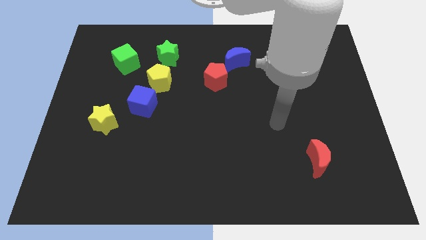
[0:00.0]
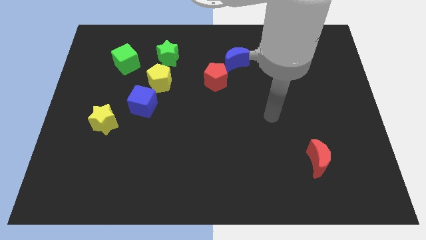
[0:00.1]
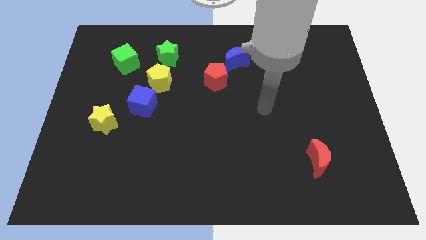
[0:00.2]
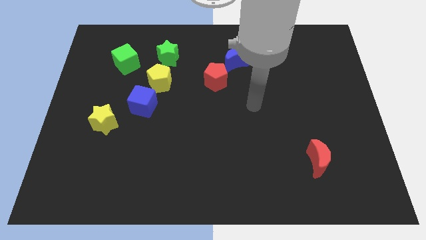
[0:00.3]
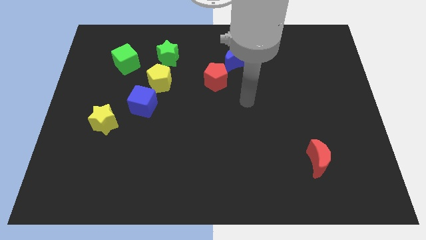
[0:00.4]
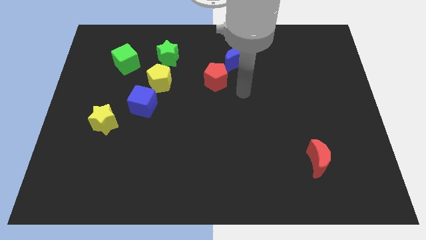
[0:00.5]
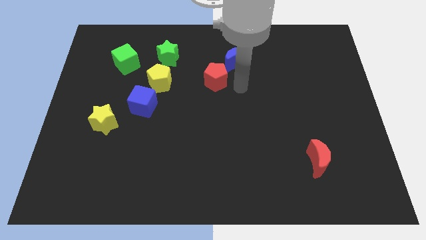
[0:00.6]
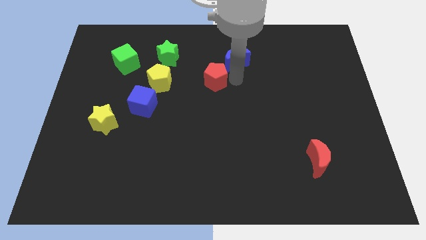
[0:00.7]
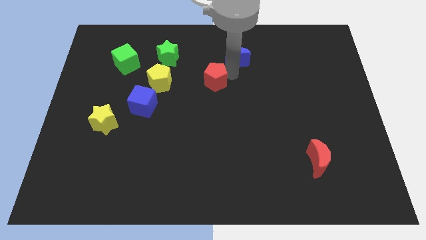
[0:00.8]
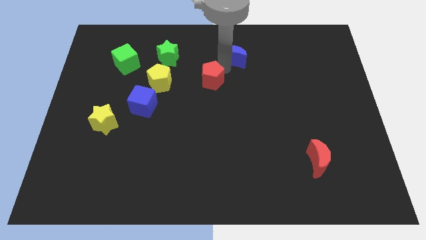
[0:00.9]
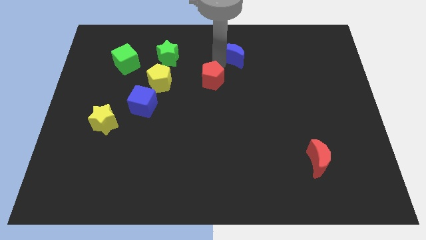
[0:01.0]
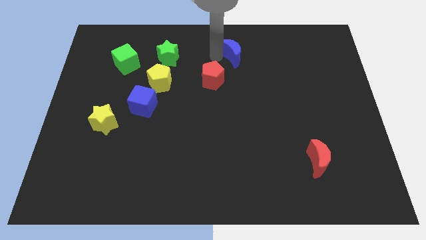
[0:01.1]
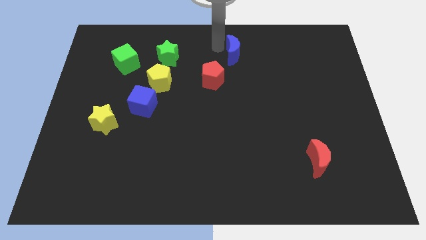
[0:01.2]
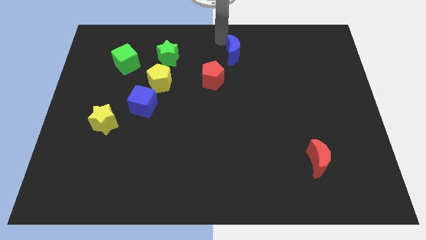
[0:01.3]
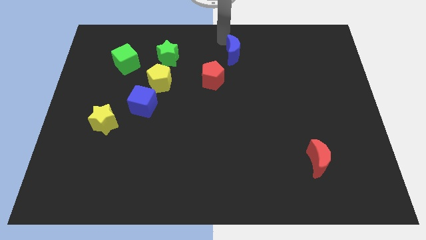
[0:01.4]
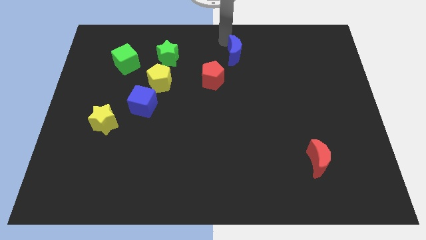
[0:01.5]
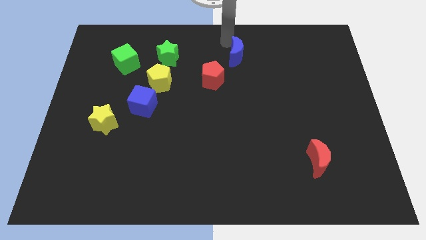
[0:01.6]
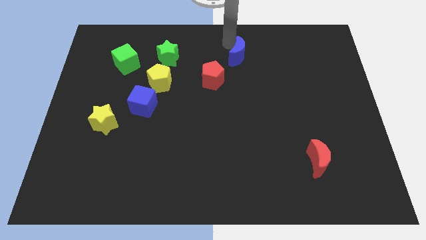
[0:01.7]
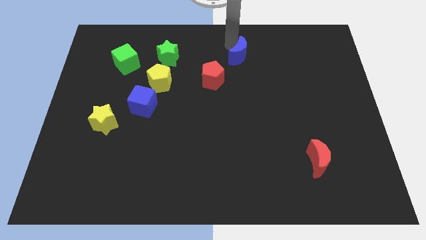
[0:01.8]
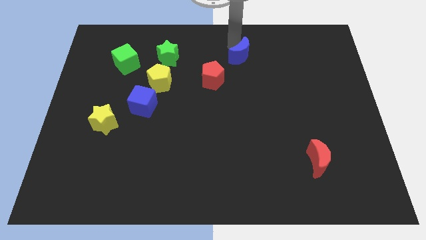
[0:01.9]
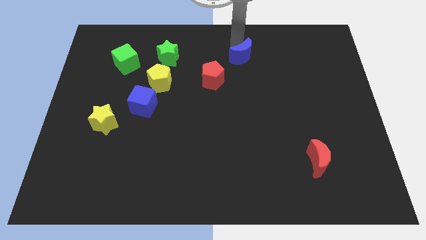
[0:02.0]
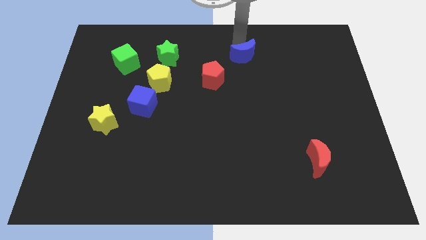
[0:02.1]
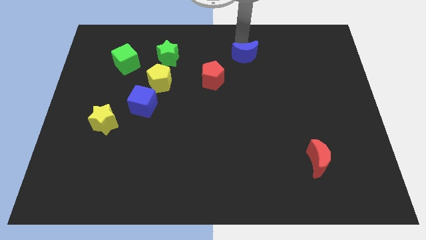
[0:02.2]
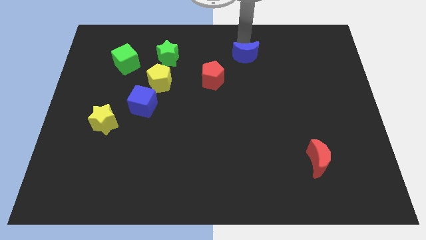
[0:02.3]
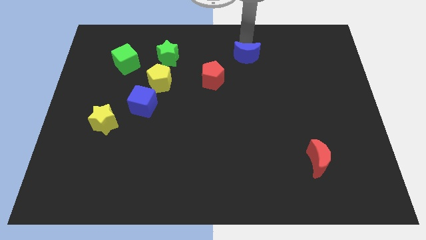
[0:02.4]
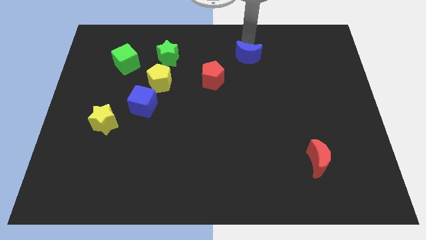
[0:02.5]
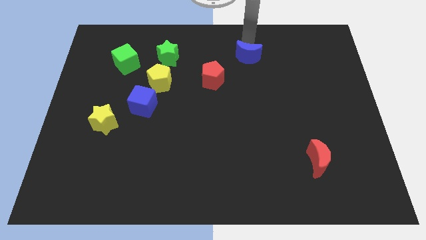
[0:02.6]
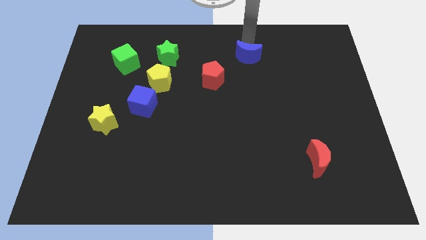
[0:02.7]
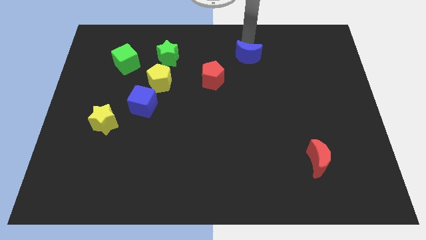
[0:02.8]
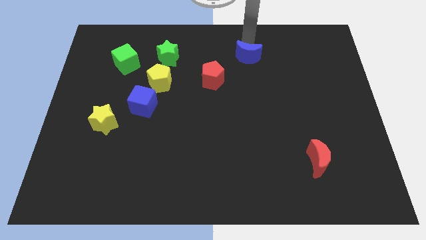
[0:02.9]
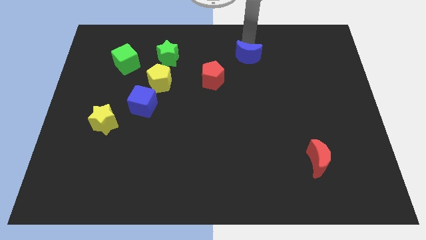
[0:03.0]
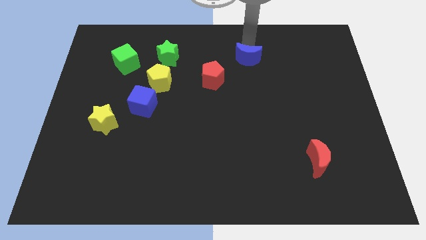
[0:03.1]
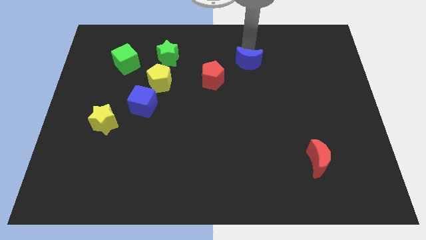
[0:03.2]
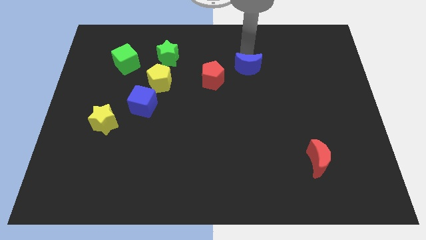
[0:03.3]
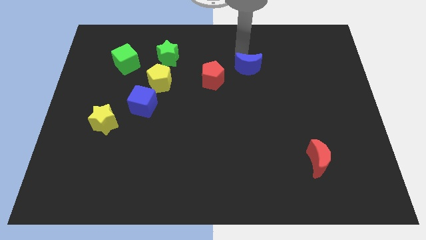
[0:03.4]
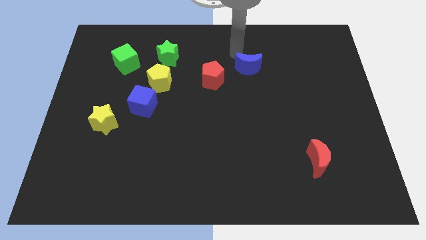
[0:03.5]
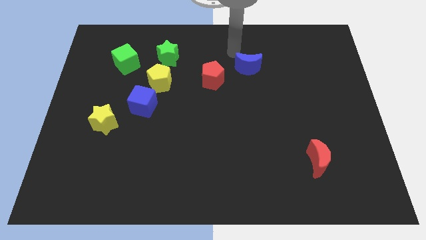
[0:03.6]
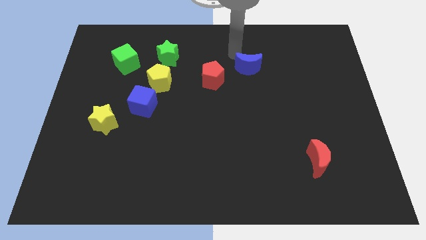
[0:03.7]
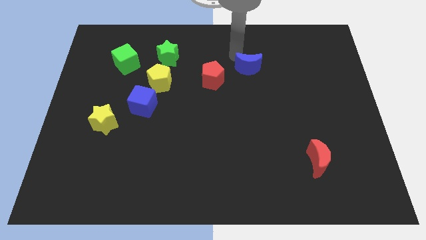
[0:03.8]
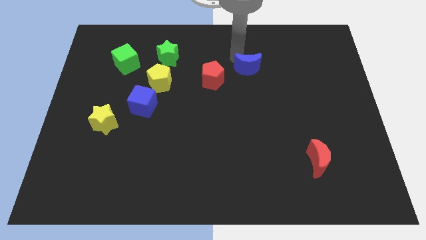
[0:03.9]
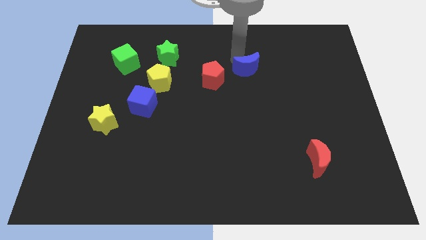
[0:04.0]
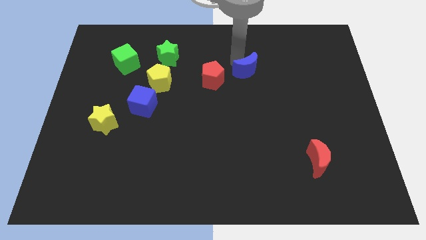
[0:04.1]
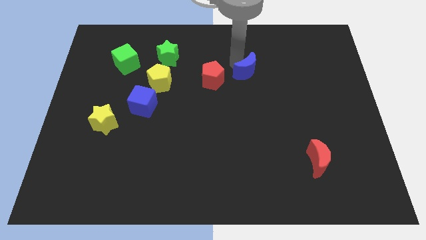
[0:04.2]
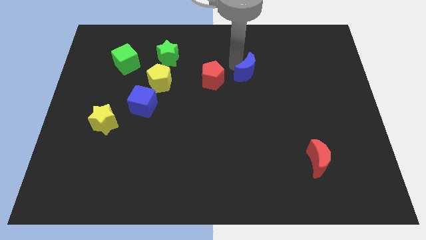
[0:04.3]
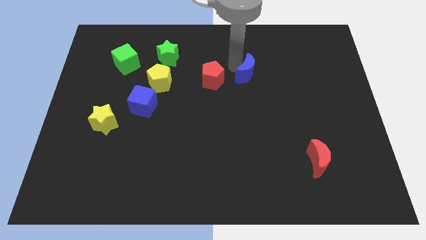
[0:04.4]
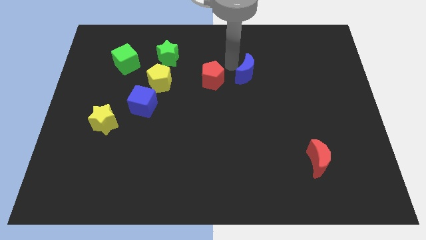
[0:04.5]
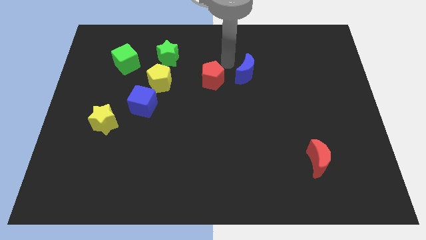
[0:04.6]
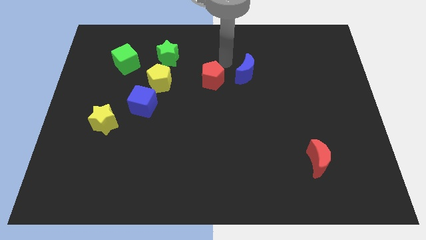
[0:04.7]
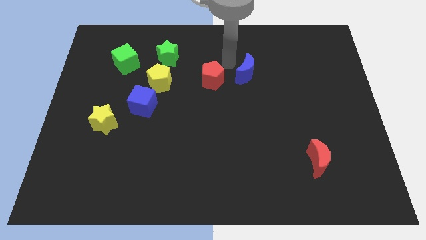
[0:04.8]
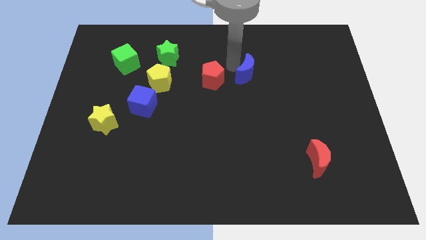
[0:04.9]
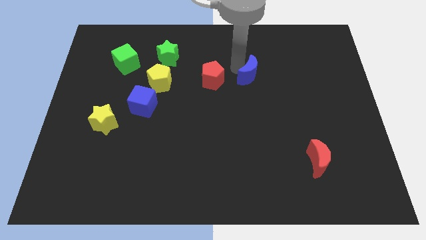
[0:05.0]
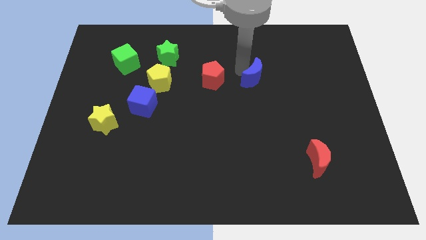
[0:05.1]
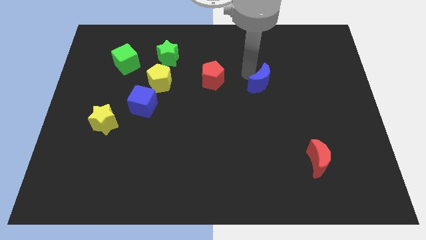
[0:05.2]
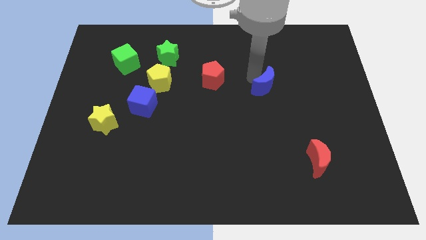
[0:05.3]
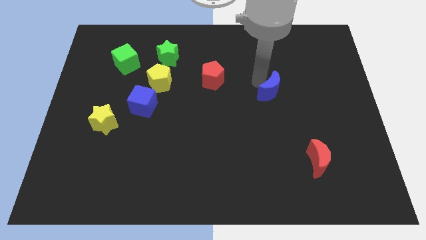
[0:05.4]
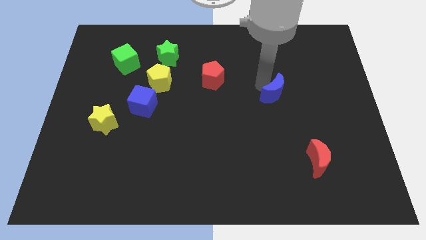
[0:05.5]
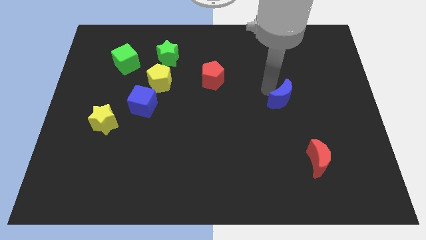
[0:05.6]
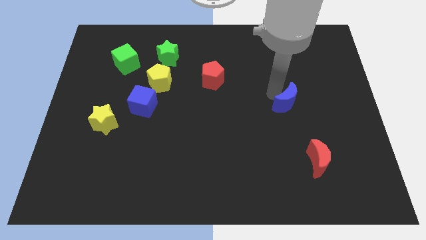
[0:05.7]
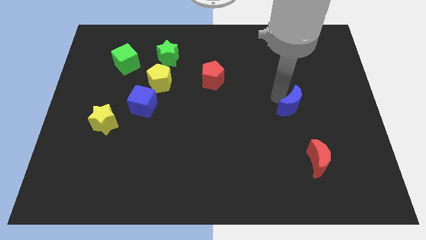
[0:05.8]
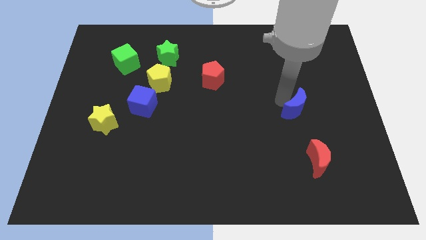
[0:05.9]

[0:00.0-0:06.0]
slide the blue moon downwards and to the right

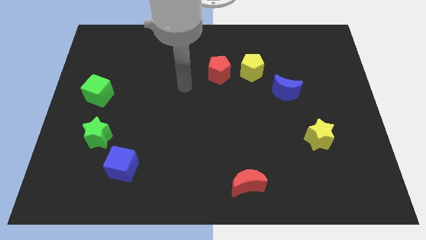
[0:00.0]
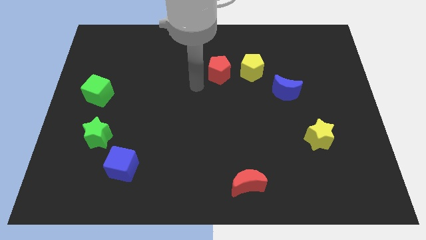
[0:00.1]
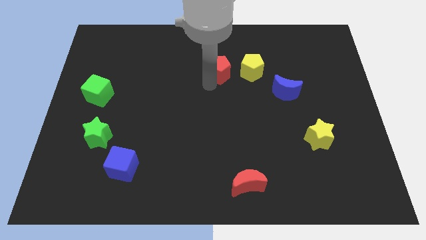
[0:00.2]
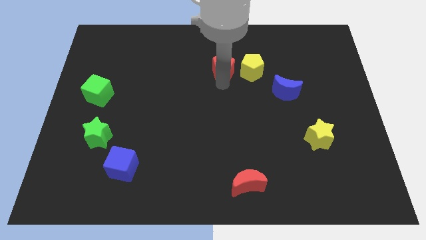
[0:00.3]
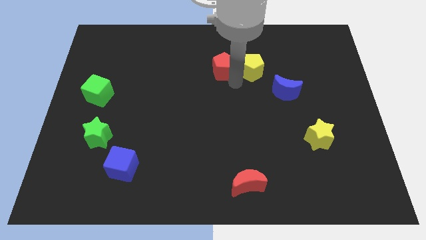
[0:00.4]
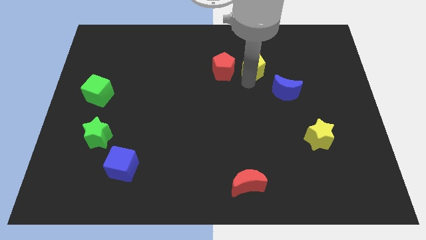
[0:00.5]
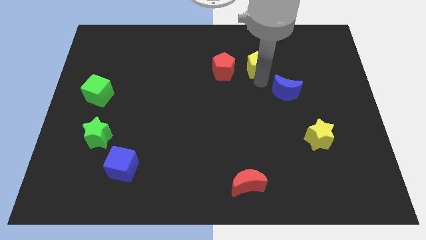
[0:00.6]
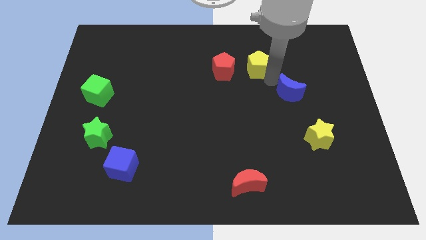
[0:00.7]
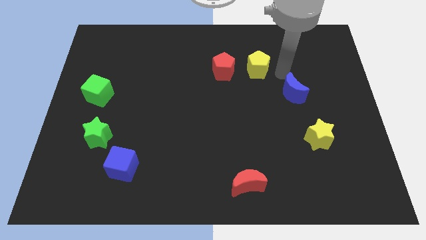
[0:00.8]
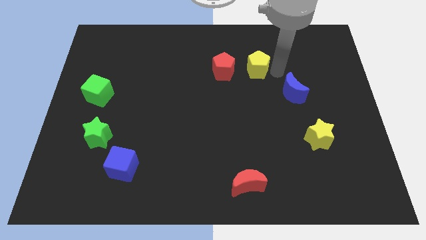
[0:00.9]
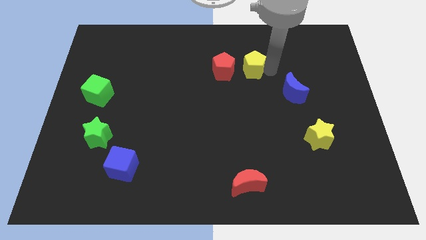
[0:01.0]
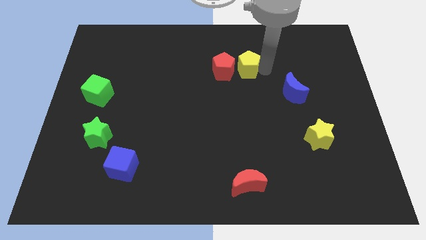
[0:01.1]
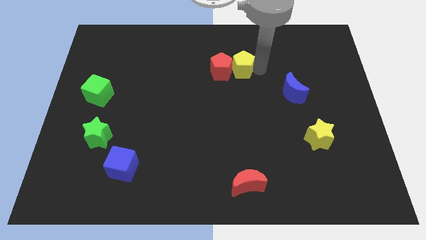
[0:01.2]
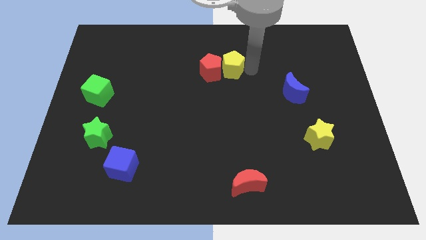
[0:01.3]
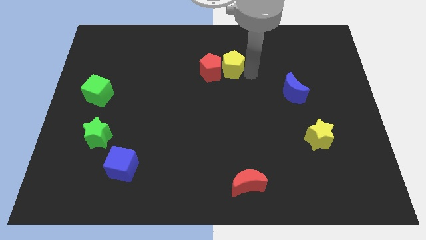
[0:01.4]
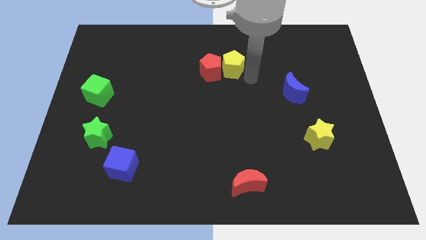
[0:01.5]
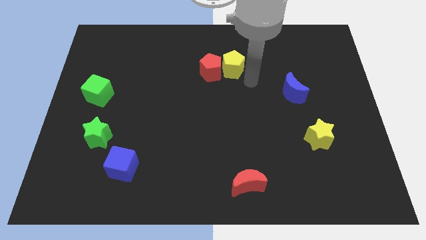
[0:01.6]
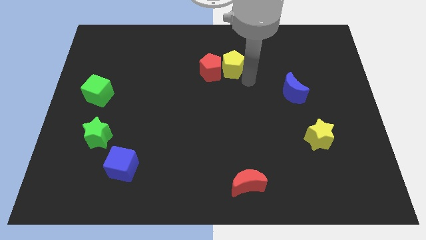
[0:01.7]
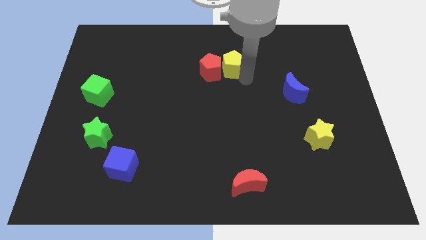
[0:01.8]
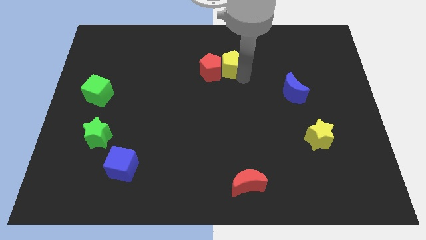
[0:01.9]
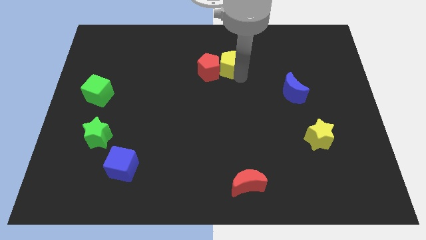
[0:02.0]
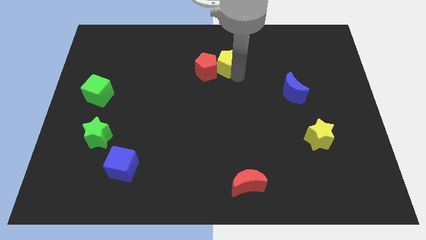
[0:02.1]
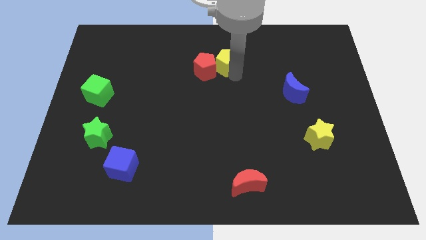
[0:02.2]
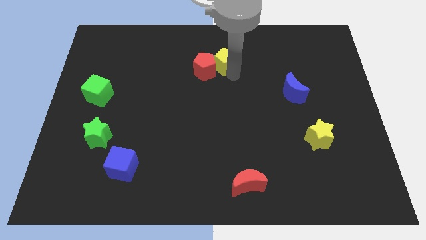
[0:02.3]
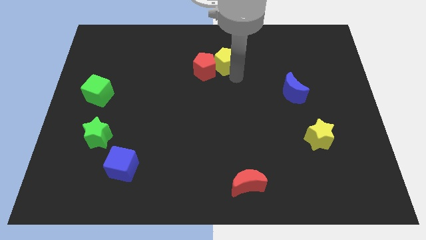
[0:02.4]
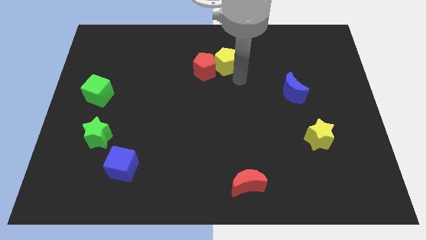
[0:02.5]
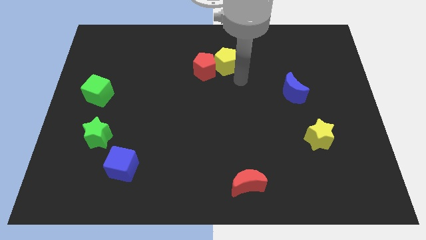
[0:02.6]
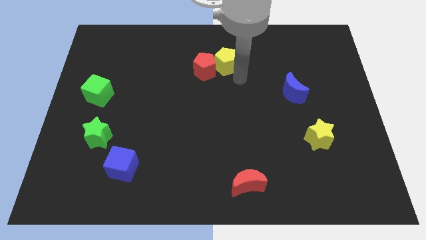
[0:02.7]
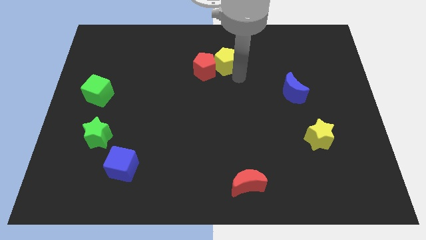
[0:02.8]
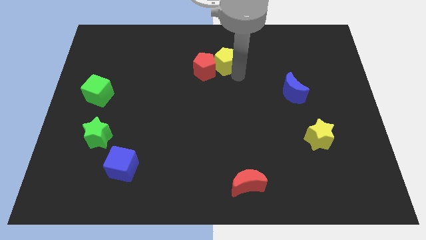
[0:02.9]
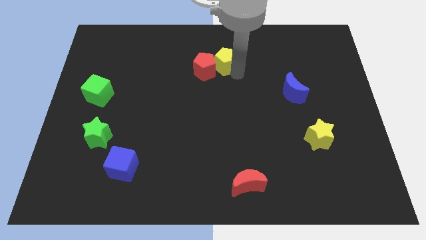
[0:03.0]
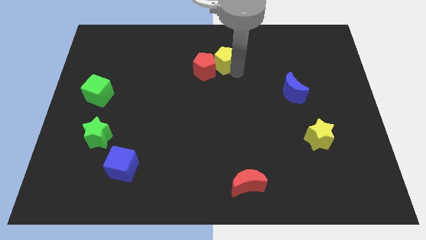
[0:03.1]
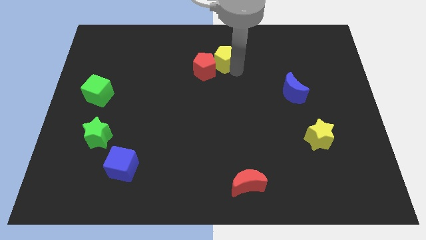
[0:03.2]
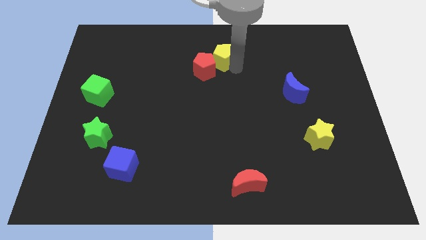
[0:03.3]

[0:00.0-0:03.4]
slightly push the yellow pentagon to the left
